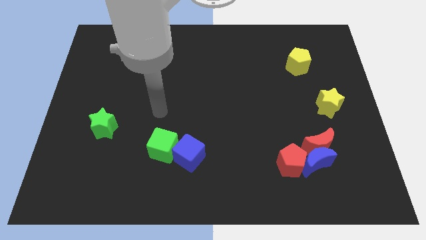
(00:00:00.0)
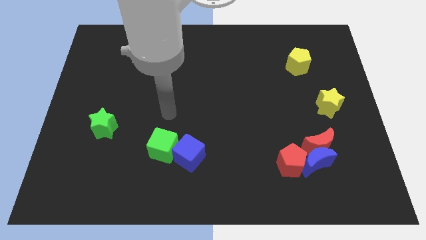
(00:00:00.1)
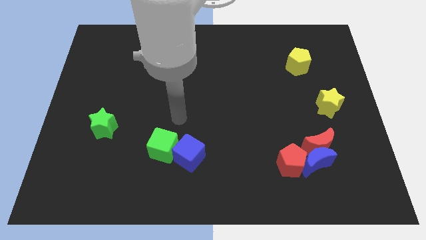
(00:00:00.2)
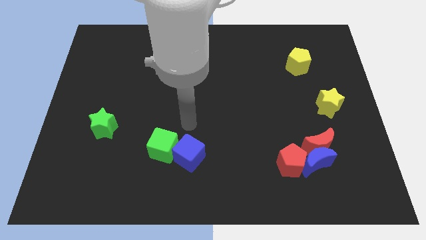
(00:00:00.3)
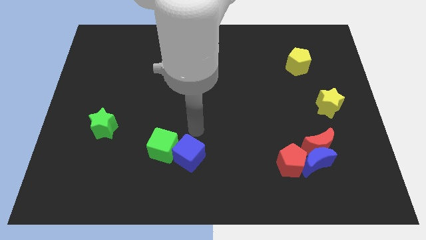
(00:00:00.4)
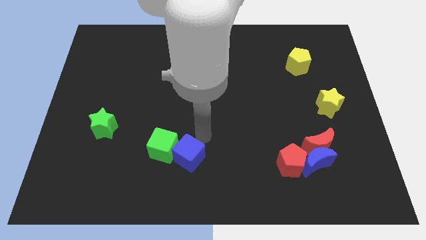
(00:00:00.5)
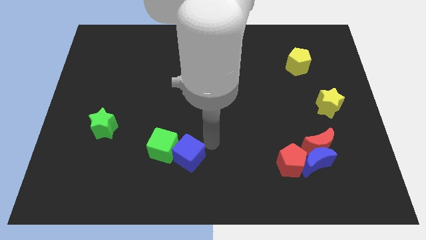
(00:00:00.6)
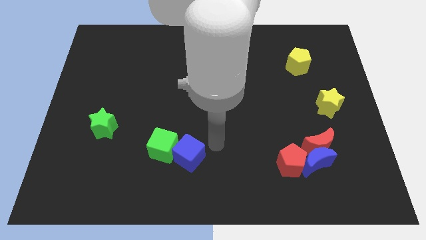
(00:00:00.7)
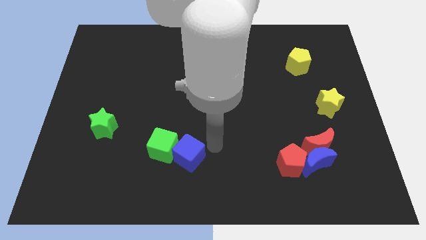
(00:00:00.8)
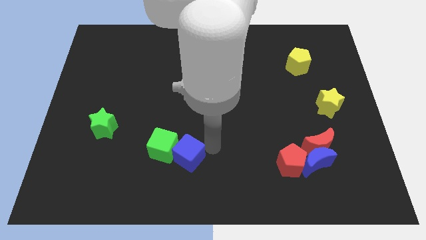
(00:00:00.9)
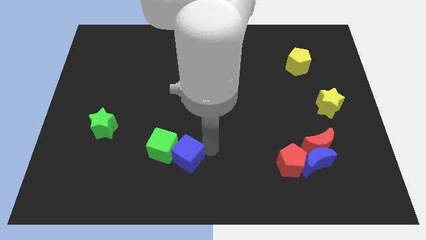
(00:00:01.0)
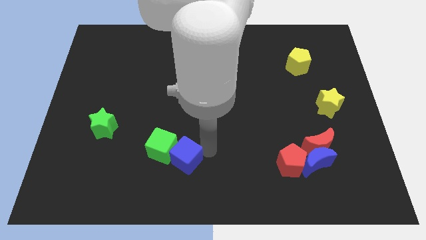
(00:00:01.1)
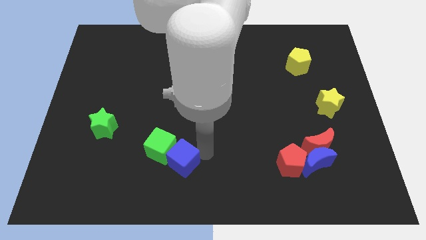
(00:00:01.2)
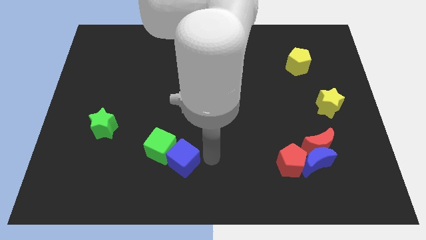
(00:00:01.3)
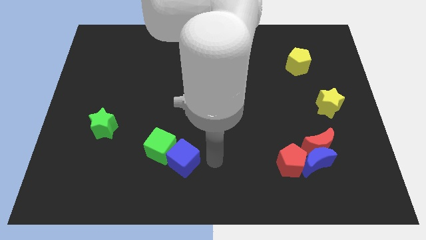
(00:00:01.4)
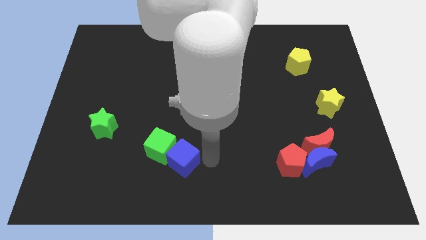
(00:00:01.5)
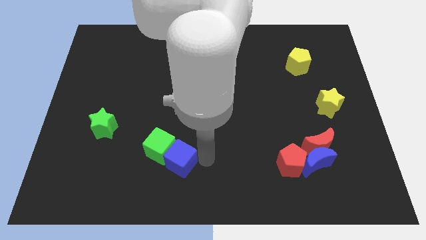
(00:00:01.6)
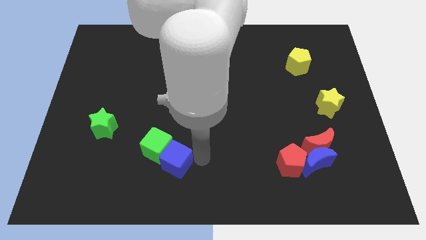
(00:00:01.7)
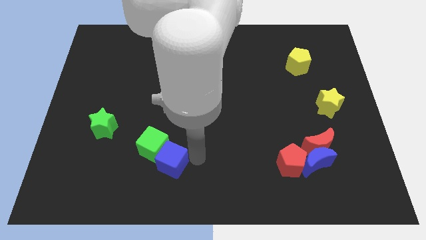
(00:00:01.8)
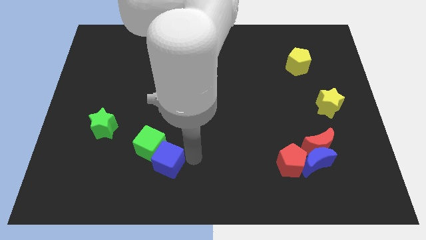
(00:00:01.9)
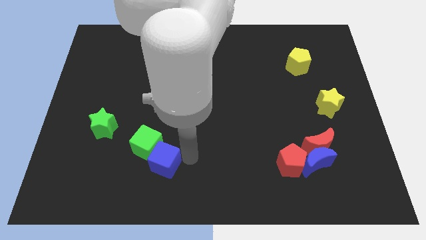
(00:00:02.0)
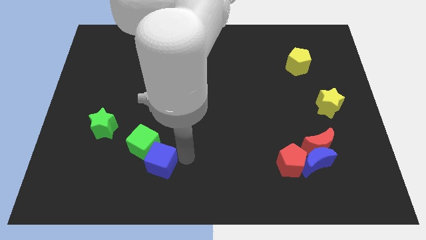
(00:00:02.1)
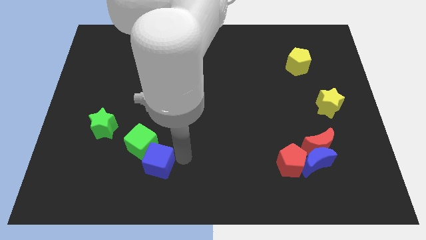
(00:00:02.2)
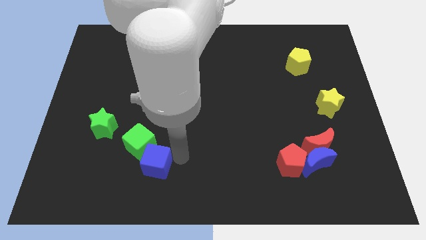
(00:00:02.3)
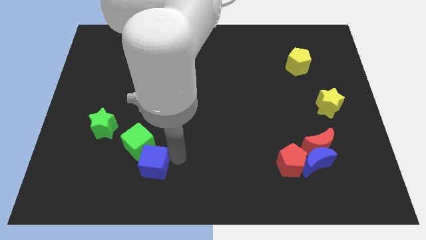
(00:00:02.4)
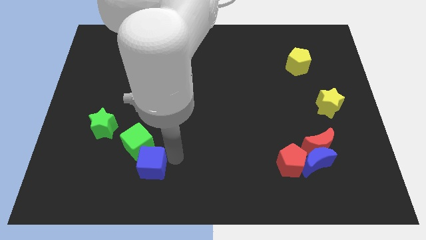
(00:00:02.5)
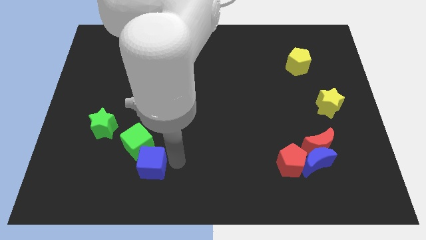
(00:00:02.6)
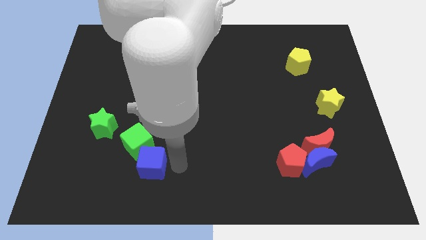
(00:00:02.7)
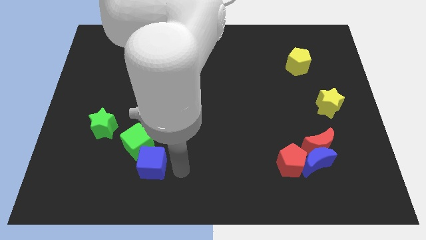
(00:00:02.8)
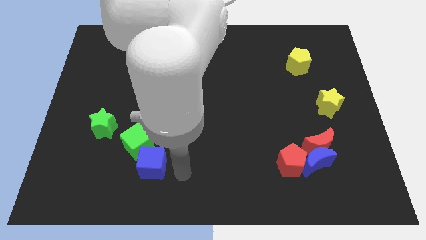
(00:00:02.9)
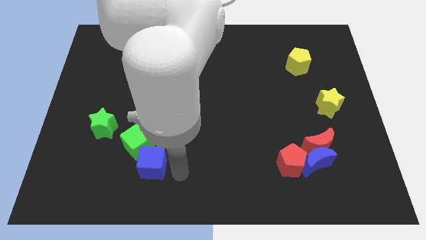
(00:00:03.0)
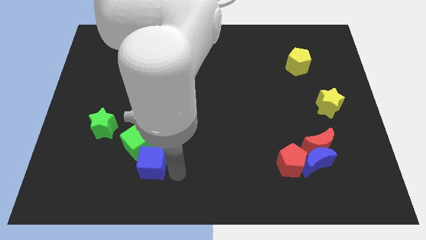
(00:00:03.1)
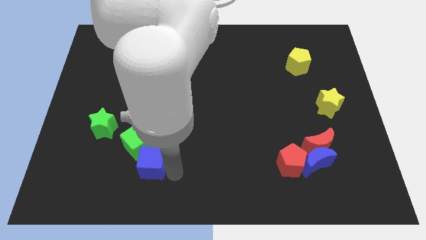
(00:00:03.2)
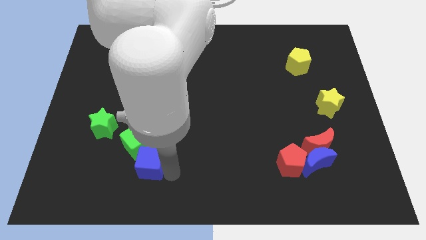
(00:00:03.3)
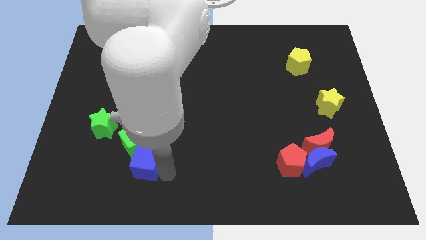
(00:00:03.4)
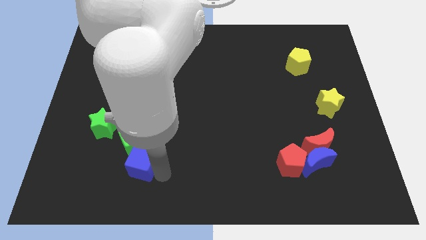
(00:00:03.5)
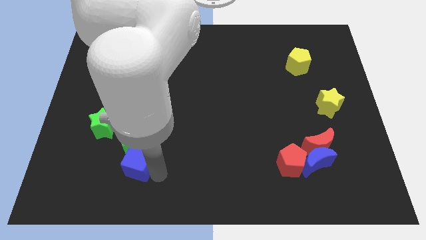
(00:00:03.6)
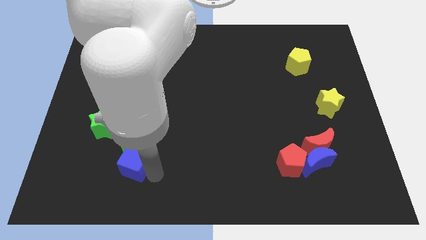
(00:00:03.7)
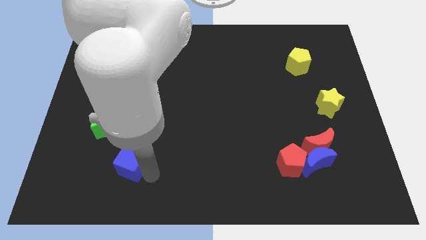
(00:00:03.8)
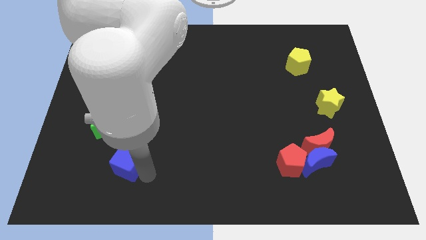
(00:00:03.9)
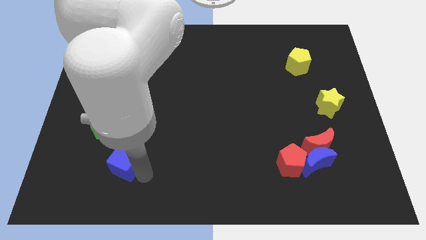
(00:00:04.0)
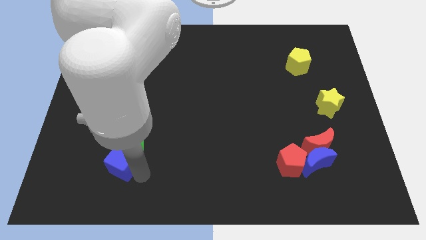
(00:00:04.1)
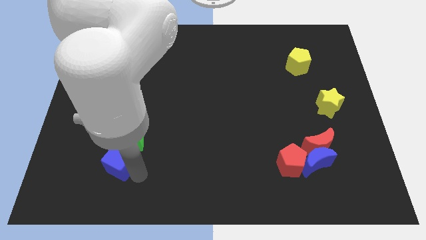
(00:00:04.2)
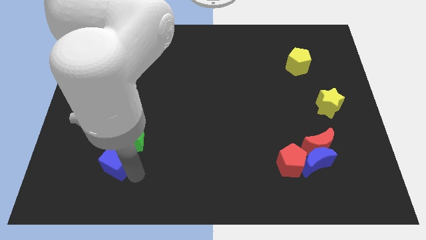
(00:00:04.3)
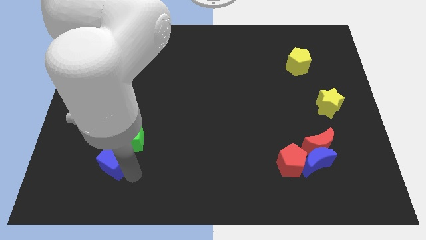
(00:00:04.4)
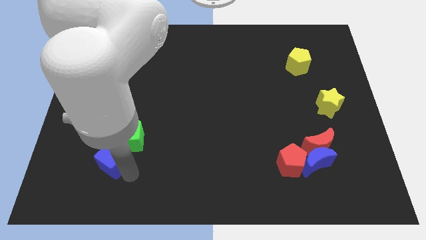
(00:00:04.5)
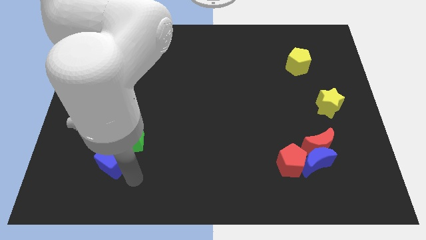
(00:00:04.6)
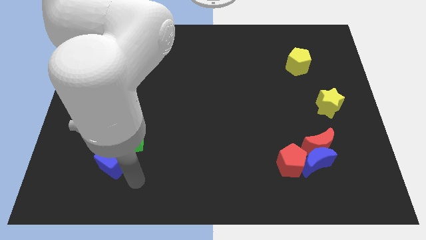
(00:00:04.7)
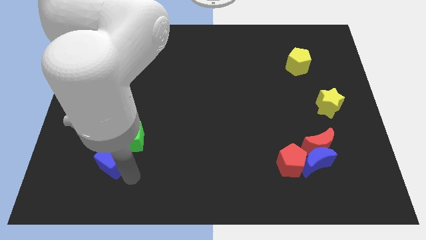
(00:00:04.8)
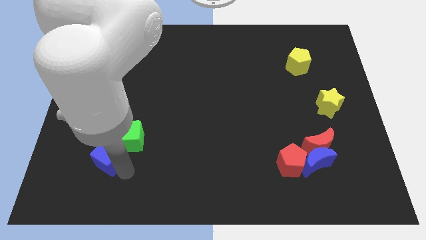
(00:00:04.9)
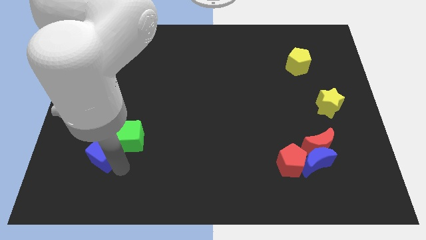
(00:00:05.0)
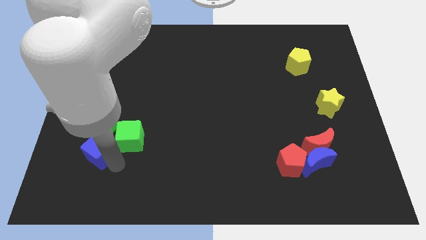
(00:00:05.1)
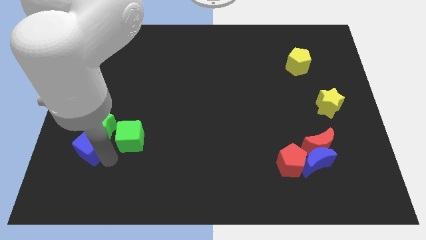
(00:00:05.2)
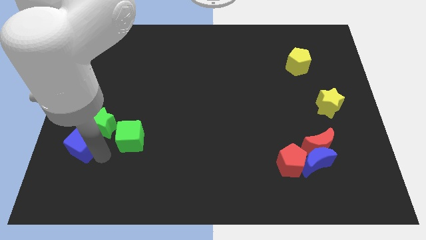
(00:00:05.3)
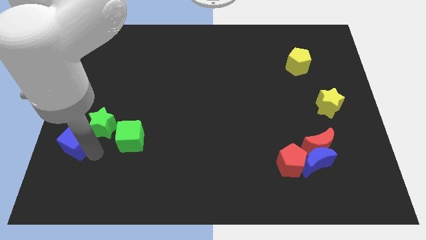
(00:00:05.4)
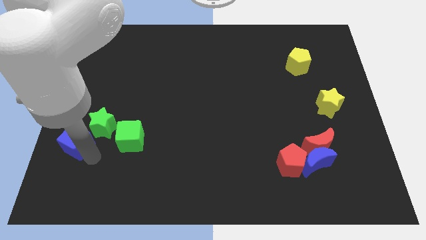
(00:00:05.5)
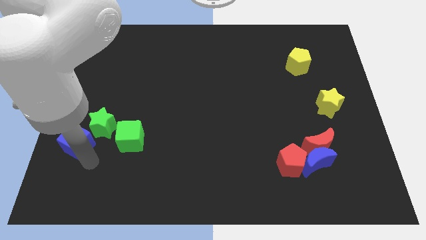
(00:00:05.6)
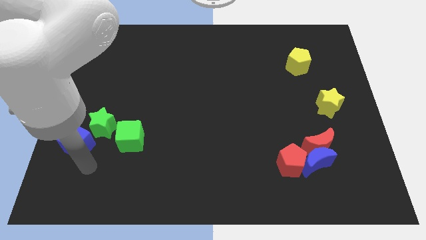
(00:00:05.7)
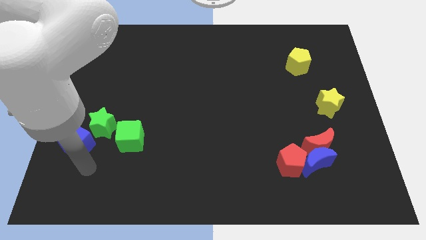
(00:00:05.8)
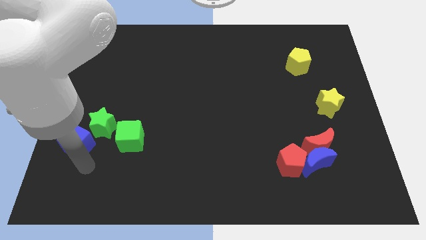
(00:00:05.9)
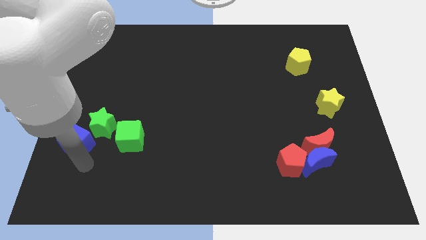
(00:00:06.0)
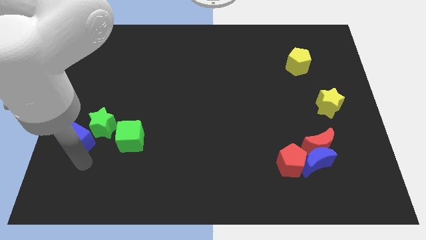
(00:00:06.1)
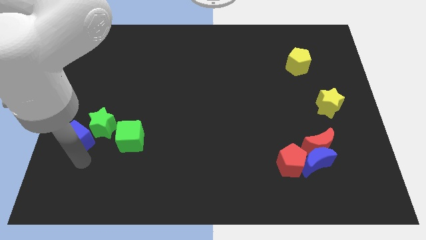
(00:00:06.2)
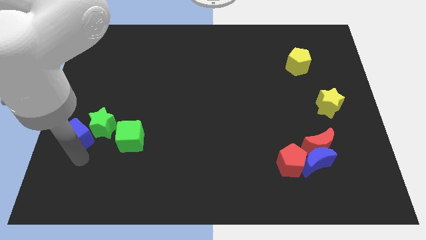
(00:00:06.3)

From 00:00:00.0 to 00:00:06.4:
move the blue cube to the center left

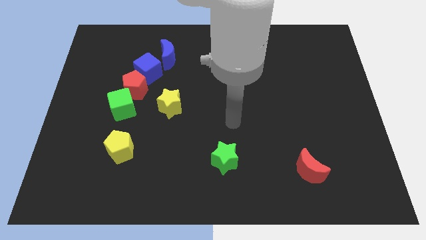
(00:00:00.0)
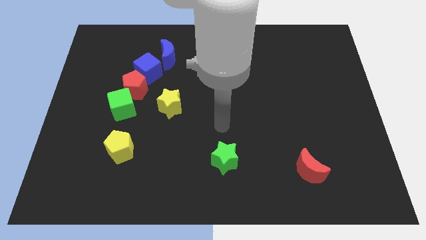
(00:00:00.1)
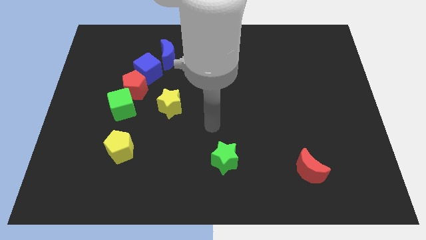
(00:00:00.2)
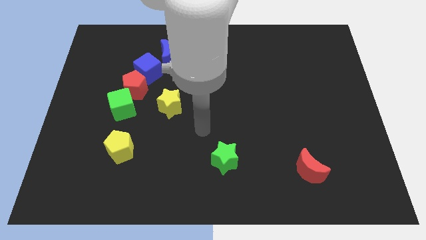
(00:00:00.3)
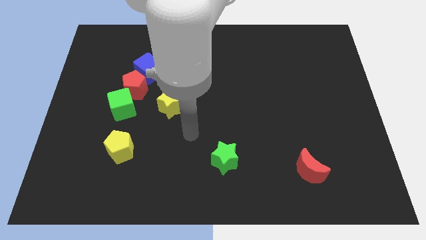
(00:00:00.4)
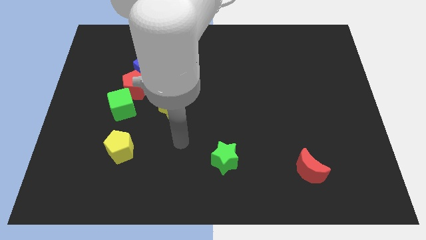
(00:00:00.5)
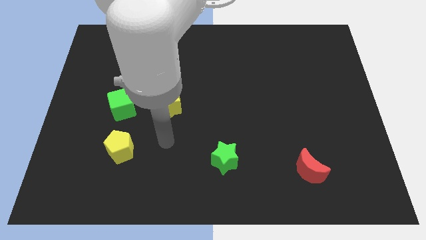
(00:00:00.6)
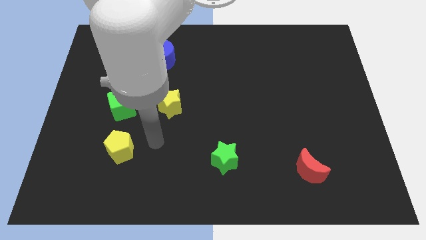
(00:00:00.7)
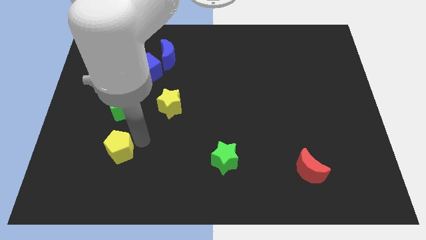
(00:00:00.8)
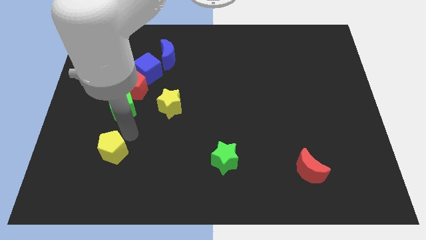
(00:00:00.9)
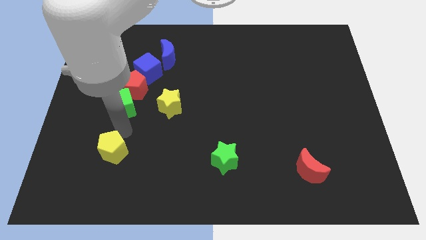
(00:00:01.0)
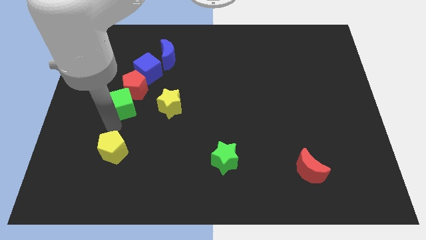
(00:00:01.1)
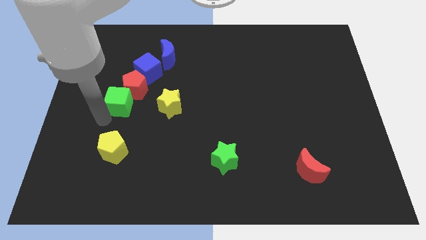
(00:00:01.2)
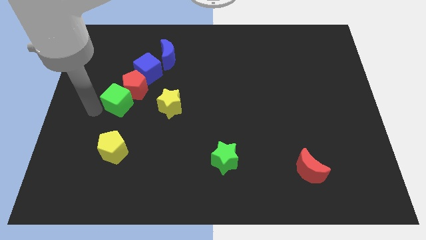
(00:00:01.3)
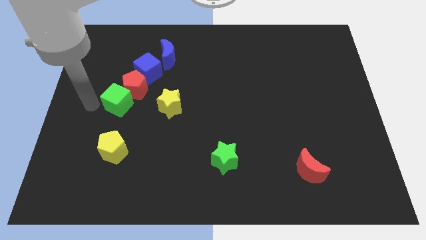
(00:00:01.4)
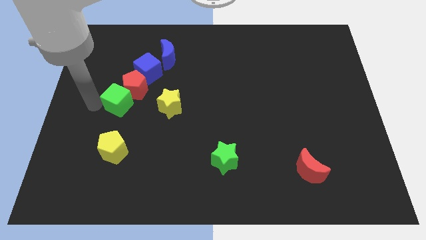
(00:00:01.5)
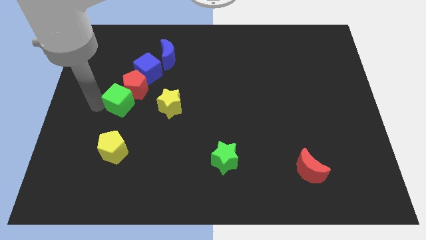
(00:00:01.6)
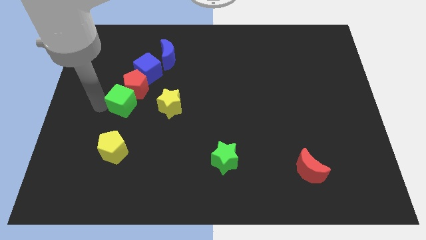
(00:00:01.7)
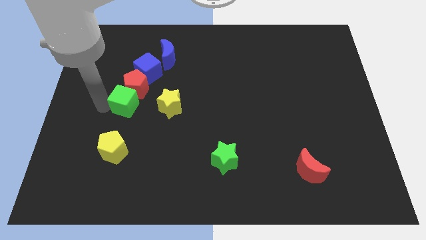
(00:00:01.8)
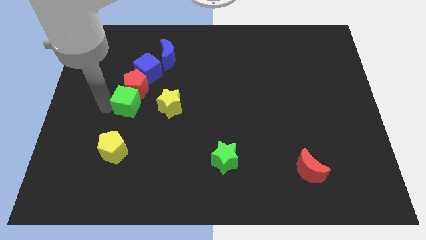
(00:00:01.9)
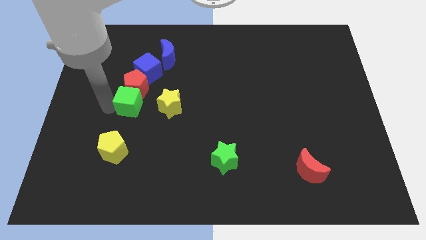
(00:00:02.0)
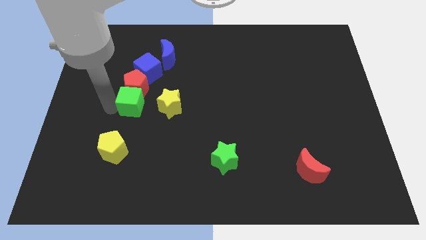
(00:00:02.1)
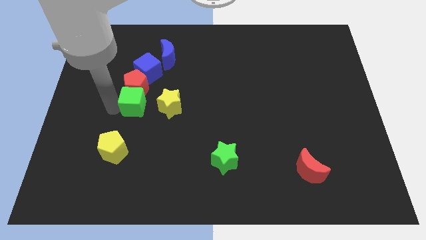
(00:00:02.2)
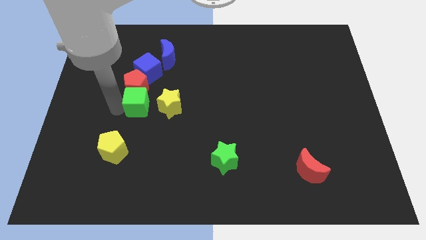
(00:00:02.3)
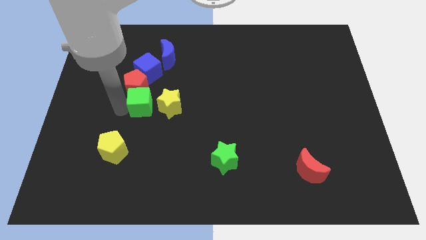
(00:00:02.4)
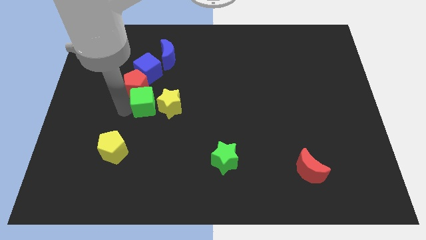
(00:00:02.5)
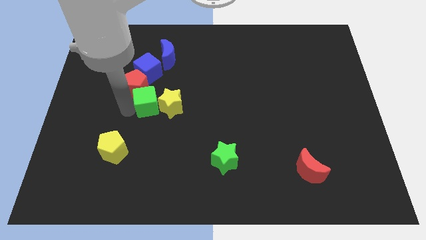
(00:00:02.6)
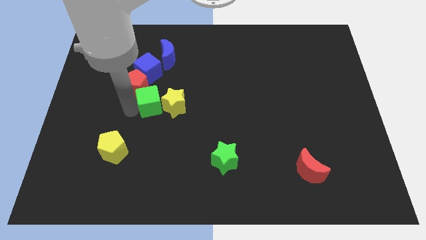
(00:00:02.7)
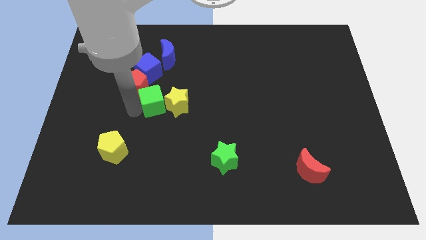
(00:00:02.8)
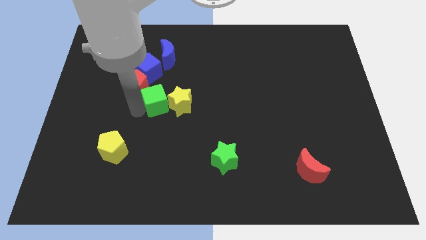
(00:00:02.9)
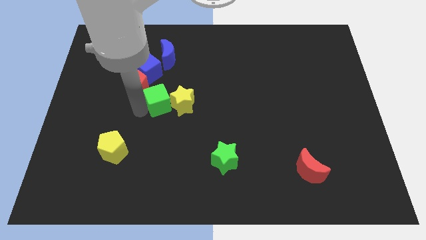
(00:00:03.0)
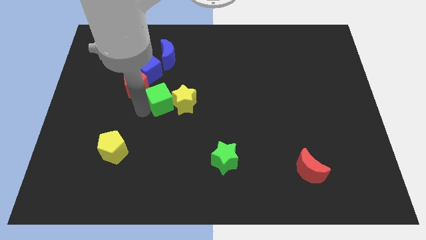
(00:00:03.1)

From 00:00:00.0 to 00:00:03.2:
put the green cube to the center
